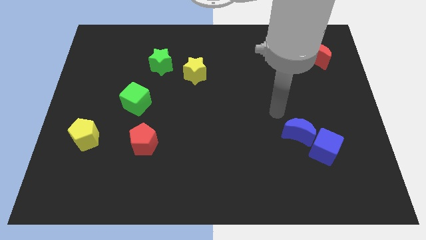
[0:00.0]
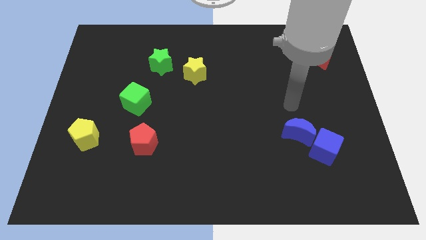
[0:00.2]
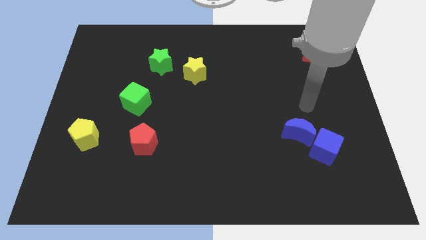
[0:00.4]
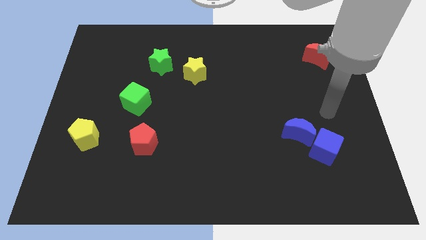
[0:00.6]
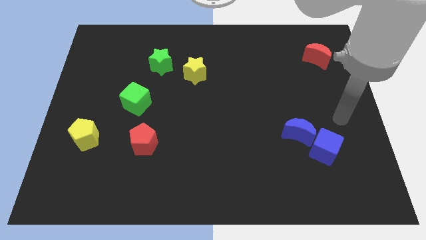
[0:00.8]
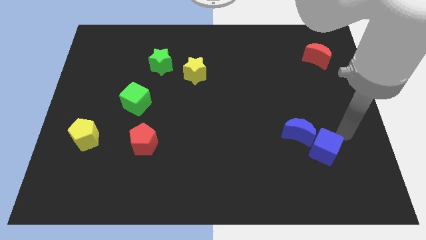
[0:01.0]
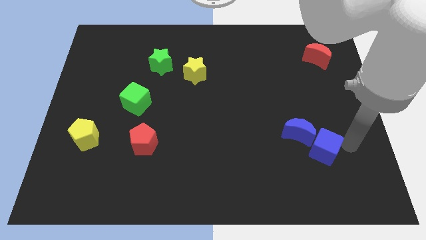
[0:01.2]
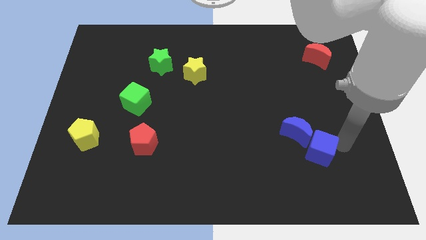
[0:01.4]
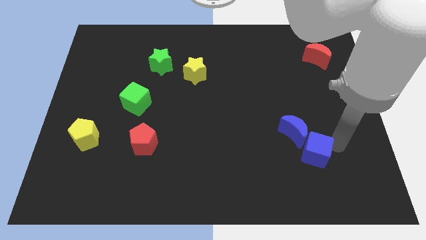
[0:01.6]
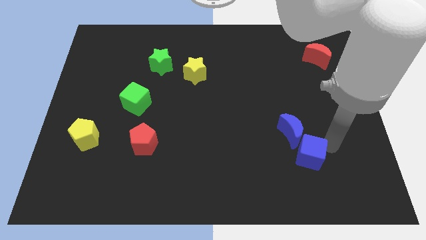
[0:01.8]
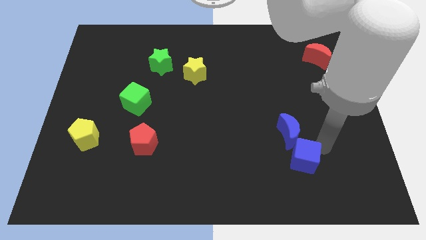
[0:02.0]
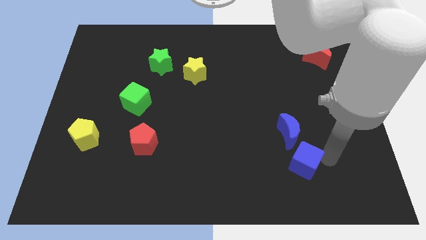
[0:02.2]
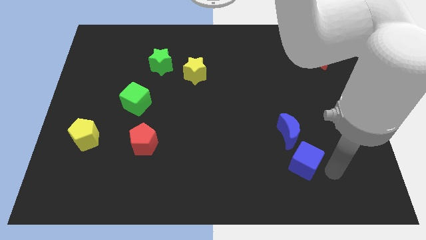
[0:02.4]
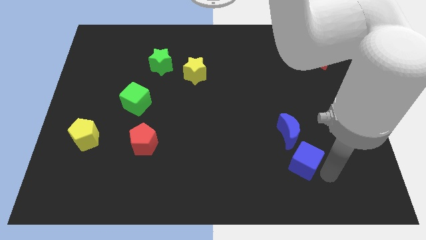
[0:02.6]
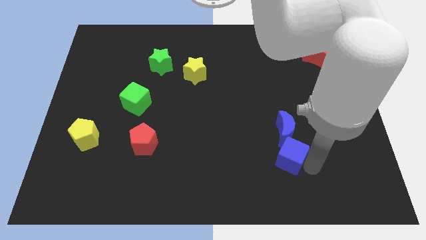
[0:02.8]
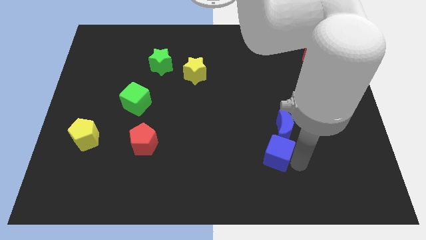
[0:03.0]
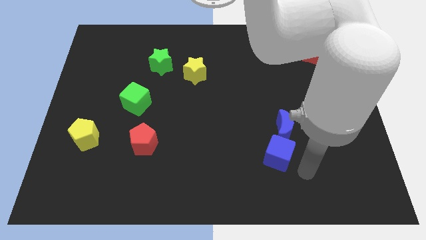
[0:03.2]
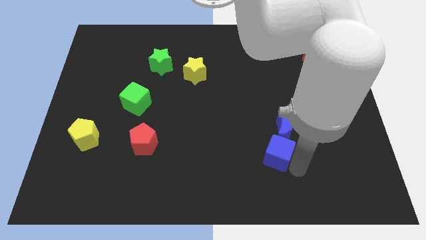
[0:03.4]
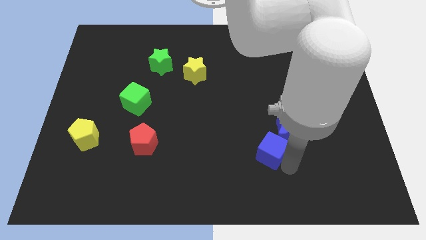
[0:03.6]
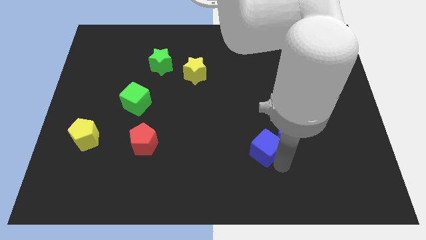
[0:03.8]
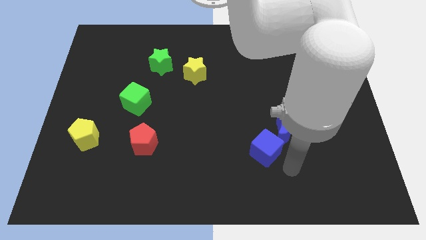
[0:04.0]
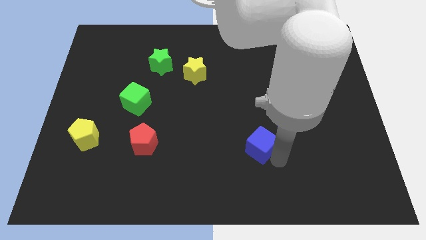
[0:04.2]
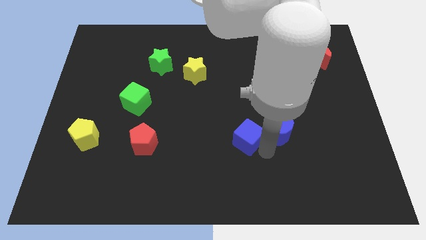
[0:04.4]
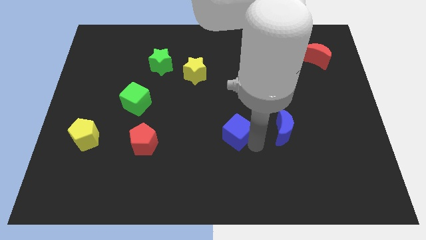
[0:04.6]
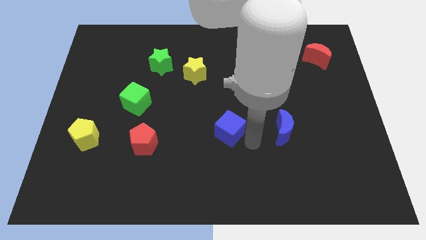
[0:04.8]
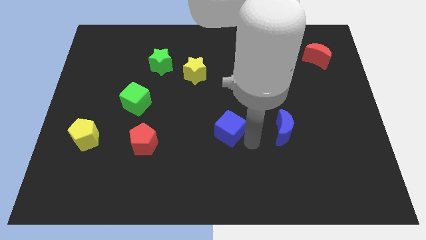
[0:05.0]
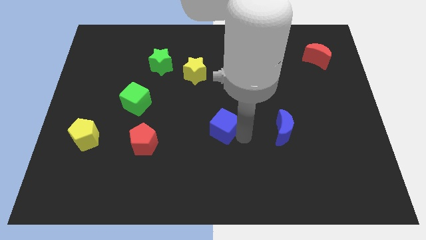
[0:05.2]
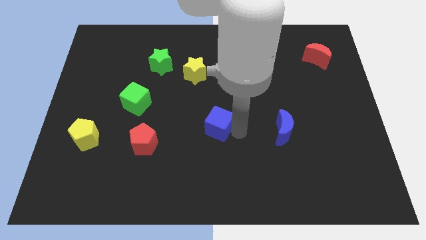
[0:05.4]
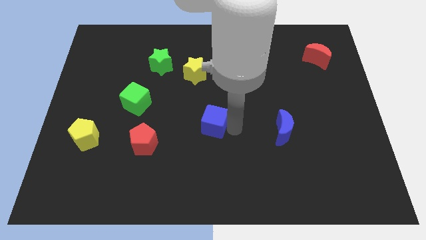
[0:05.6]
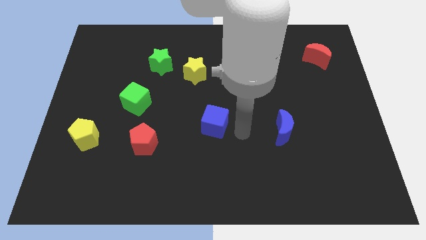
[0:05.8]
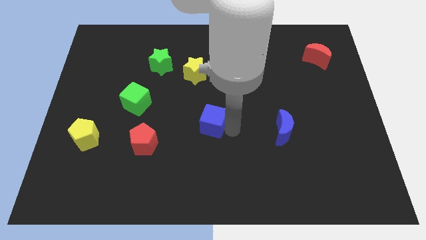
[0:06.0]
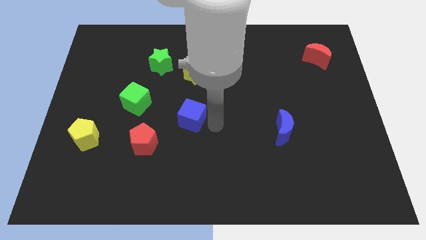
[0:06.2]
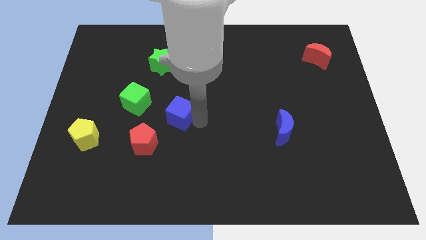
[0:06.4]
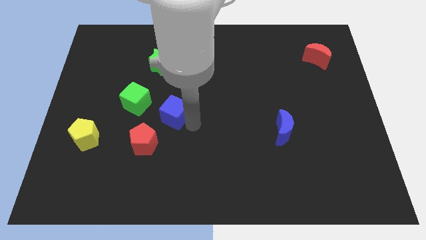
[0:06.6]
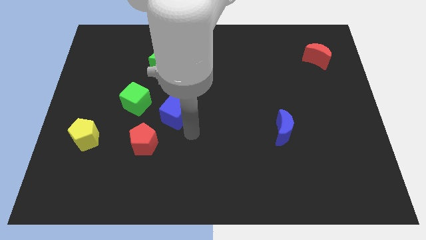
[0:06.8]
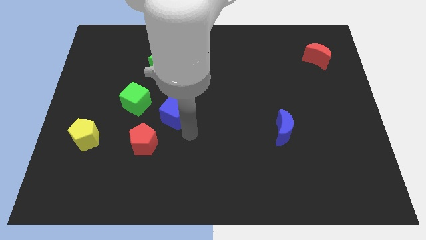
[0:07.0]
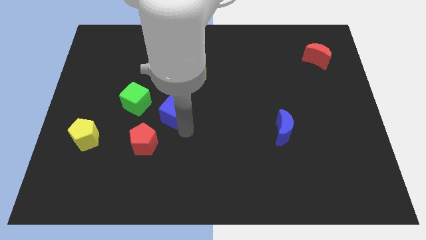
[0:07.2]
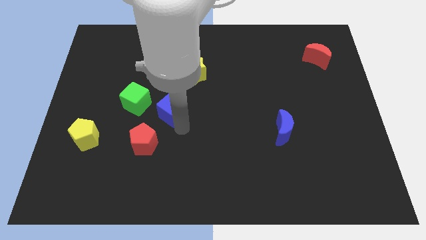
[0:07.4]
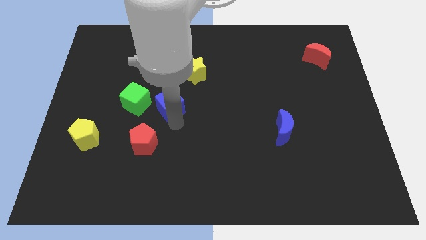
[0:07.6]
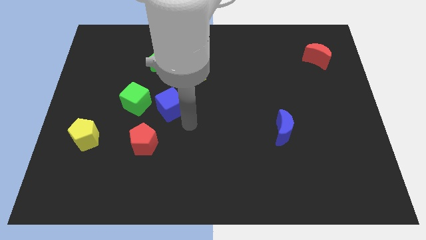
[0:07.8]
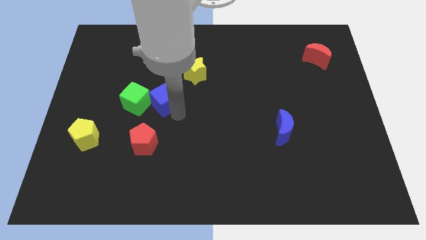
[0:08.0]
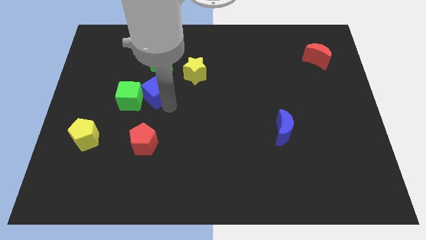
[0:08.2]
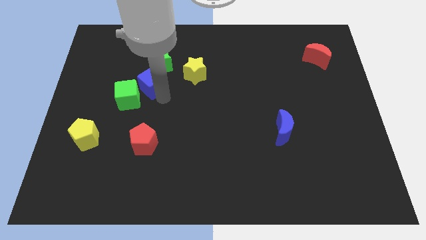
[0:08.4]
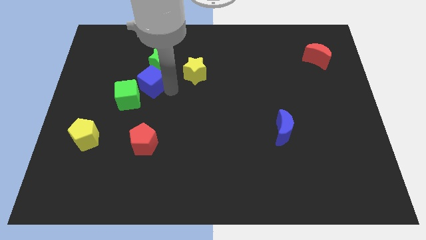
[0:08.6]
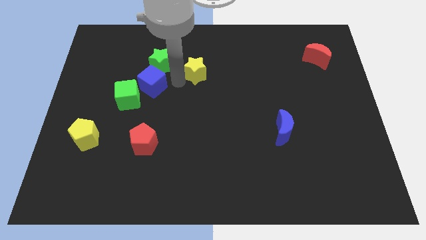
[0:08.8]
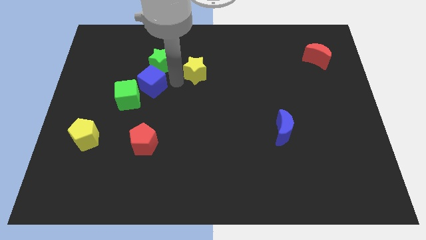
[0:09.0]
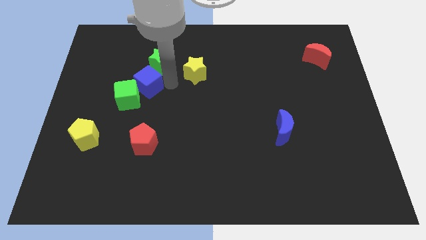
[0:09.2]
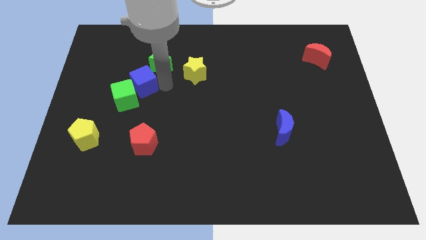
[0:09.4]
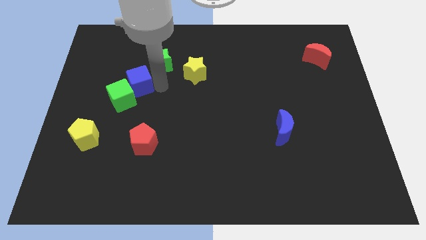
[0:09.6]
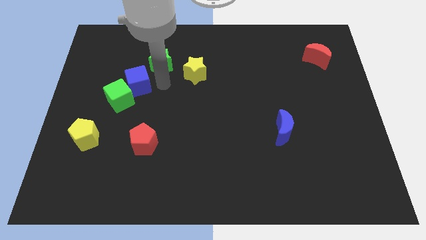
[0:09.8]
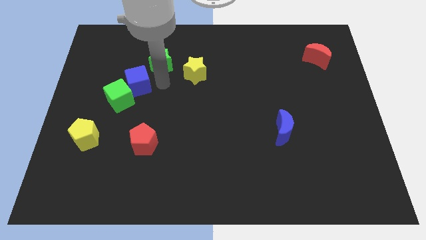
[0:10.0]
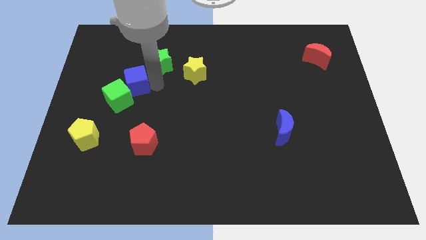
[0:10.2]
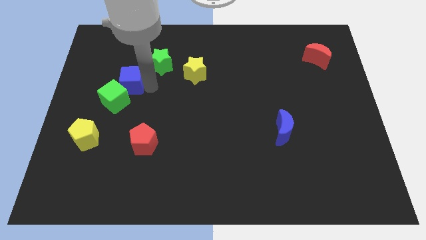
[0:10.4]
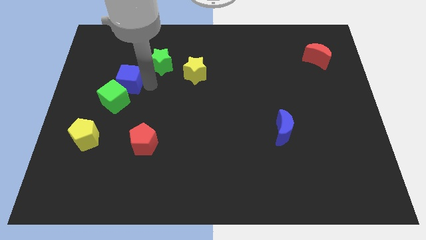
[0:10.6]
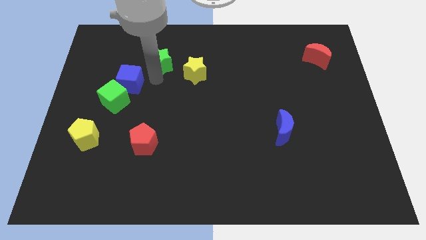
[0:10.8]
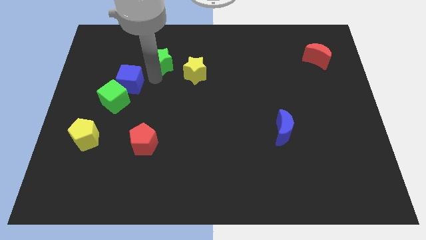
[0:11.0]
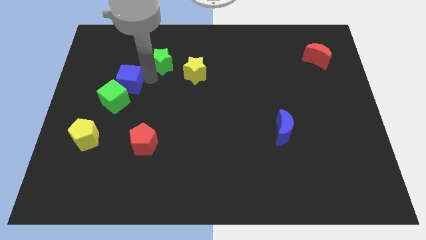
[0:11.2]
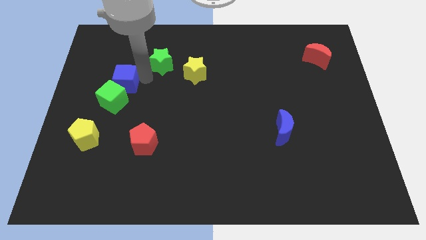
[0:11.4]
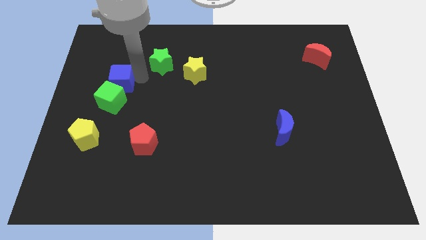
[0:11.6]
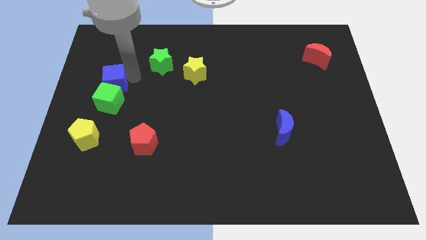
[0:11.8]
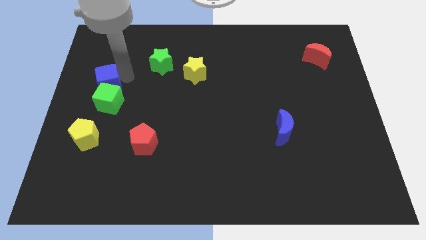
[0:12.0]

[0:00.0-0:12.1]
push the blue cube to the left side of the board

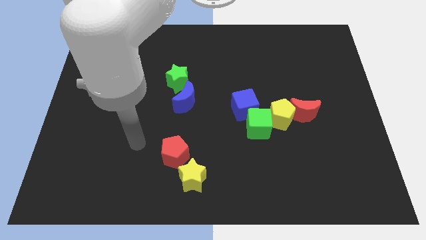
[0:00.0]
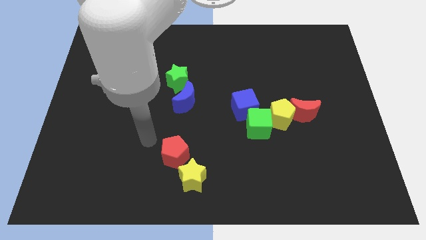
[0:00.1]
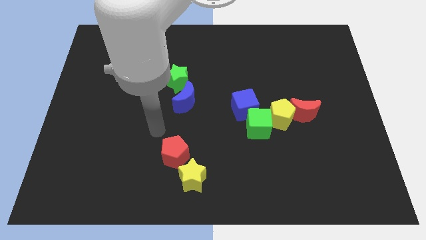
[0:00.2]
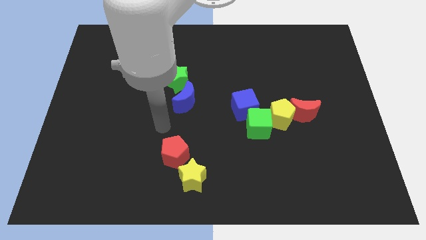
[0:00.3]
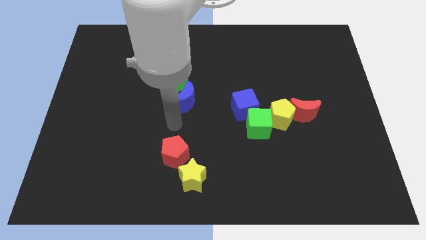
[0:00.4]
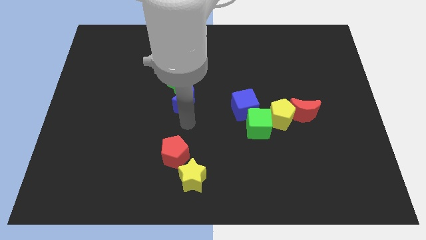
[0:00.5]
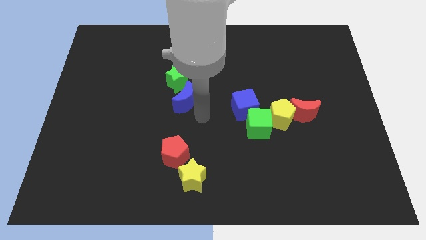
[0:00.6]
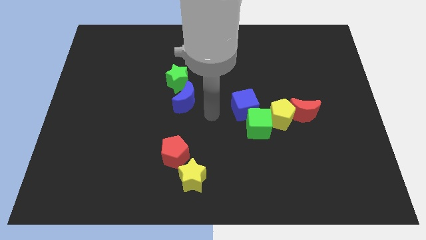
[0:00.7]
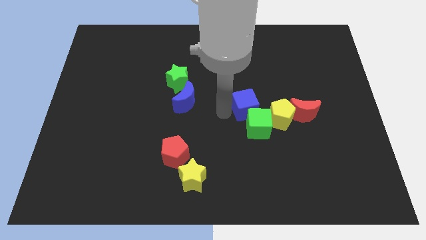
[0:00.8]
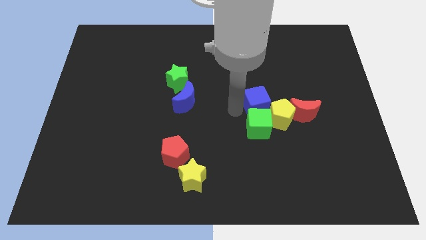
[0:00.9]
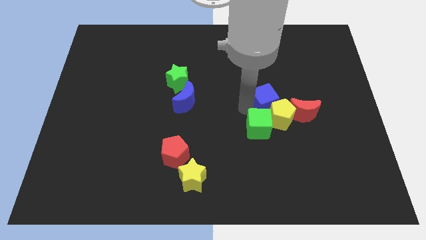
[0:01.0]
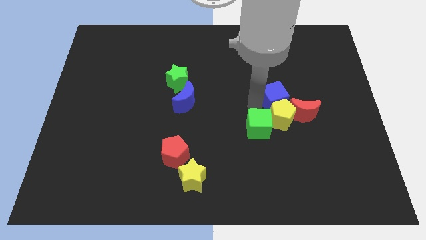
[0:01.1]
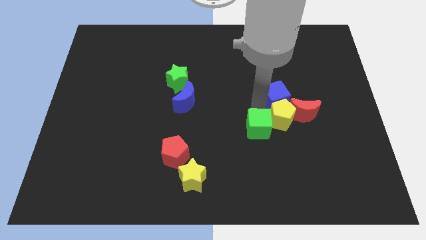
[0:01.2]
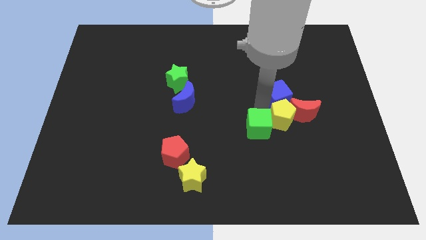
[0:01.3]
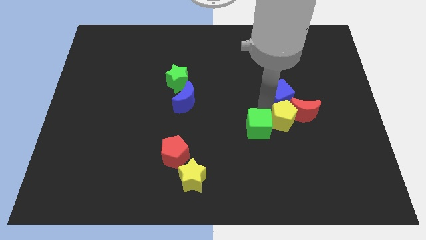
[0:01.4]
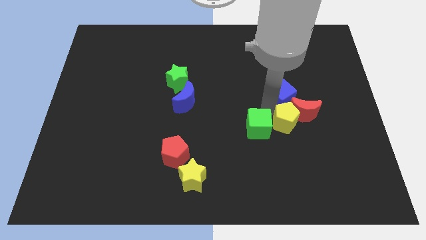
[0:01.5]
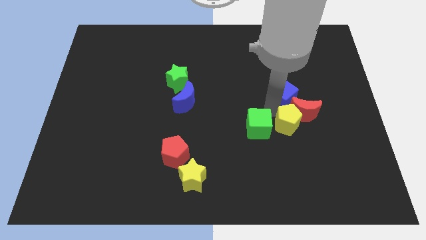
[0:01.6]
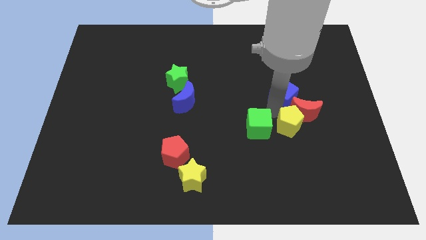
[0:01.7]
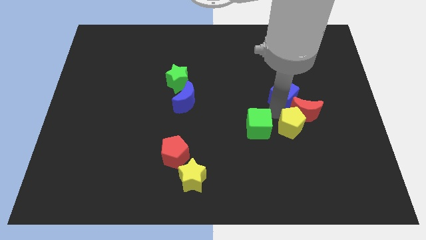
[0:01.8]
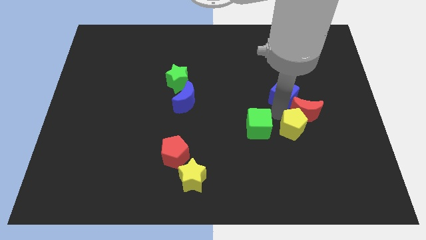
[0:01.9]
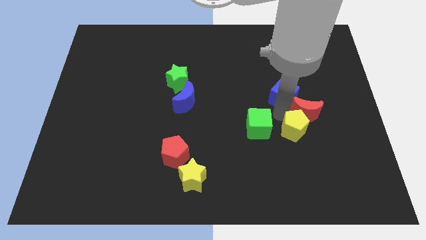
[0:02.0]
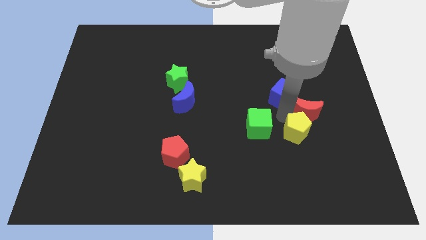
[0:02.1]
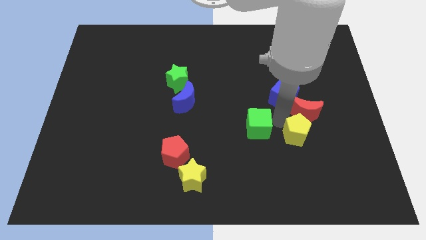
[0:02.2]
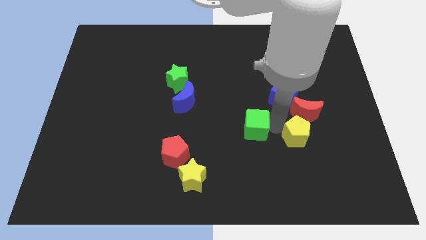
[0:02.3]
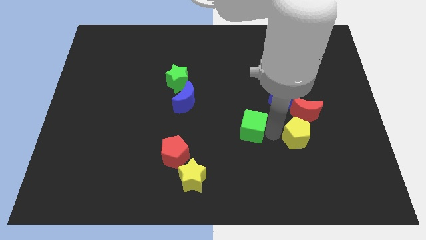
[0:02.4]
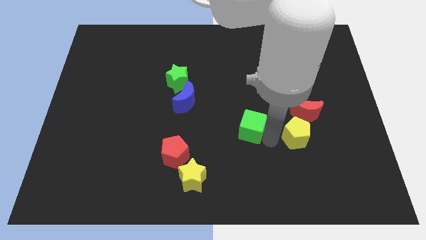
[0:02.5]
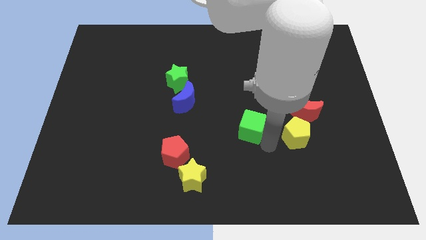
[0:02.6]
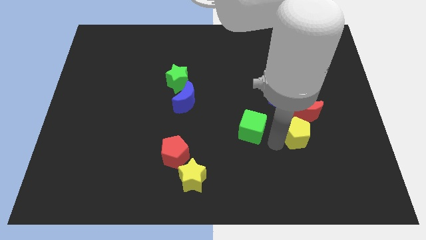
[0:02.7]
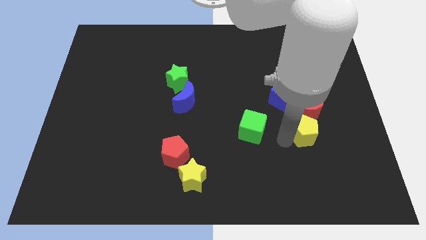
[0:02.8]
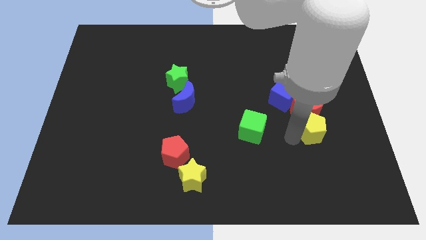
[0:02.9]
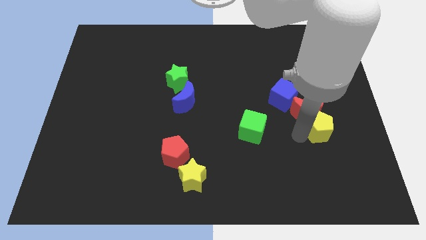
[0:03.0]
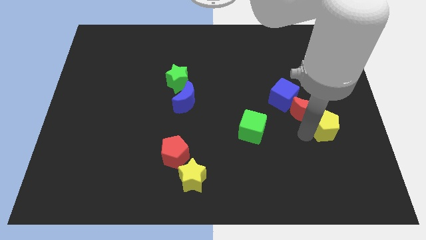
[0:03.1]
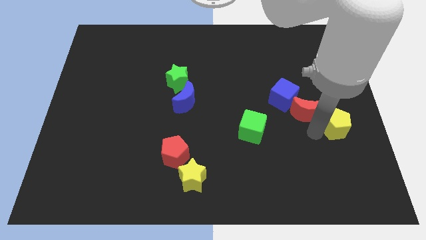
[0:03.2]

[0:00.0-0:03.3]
push the yellow pentagon to the right side of the board
